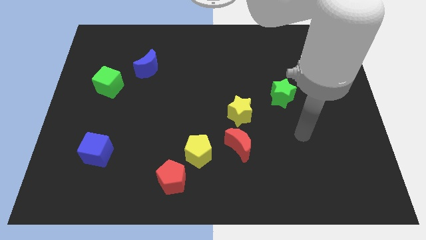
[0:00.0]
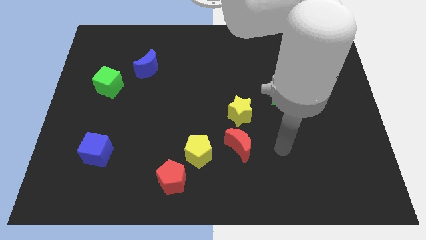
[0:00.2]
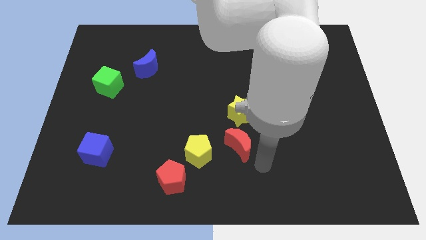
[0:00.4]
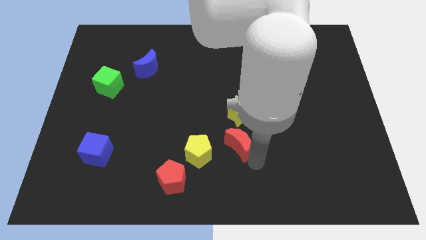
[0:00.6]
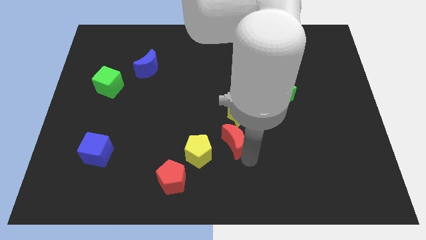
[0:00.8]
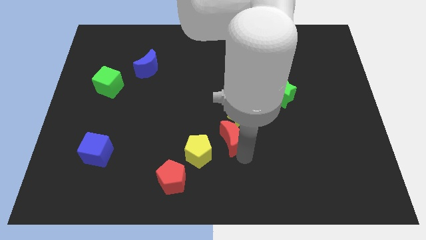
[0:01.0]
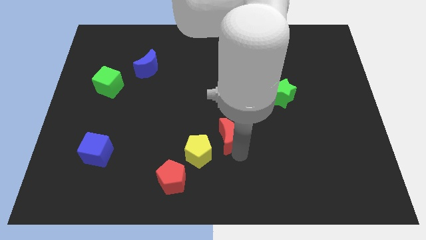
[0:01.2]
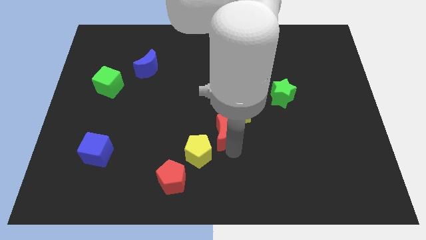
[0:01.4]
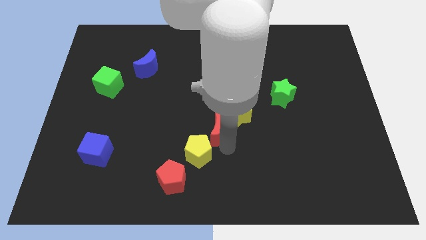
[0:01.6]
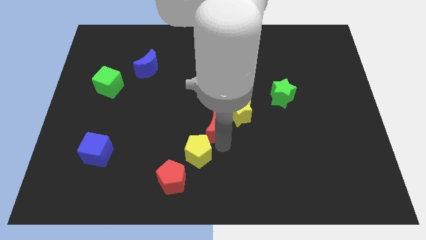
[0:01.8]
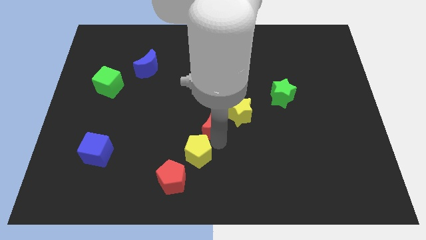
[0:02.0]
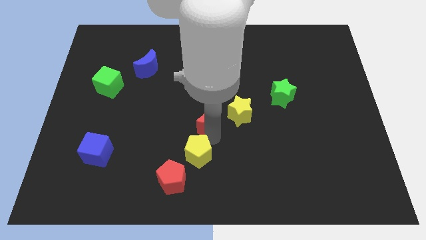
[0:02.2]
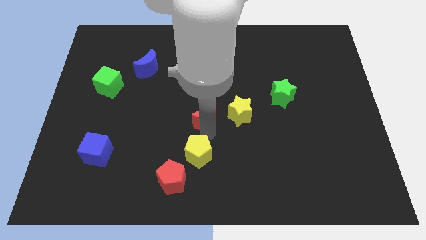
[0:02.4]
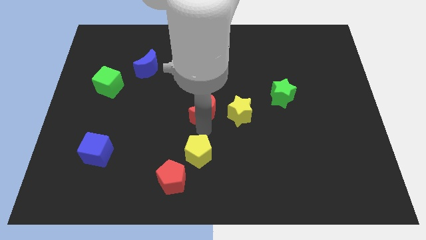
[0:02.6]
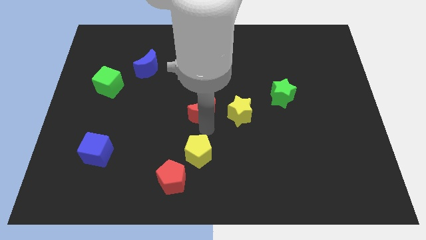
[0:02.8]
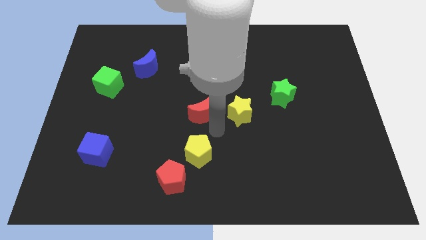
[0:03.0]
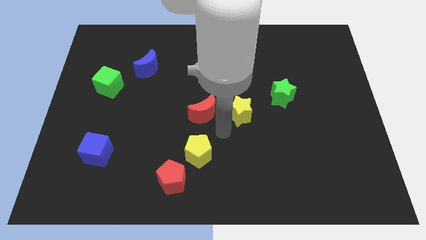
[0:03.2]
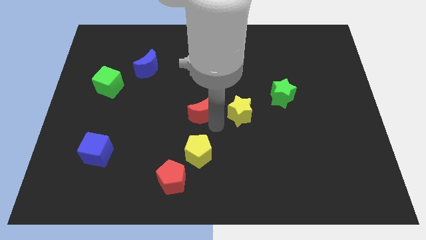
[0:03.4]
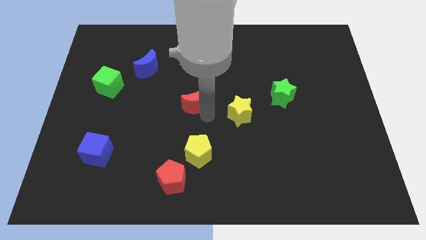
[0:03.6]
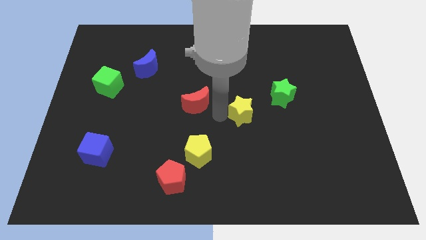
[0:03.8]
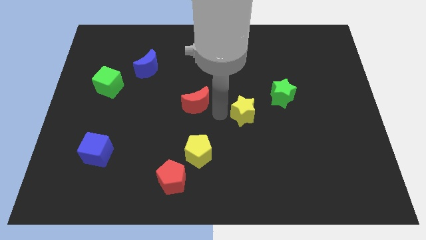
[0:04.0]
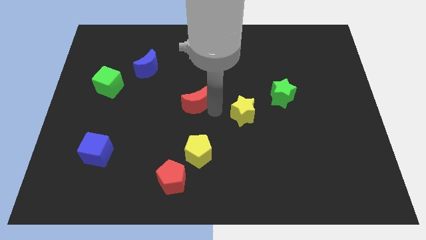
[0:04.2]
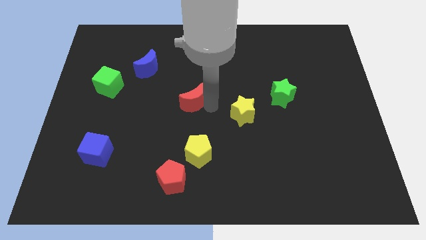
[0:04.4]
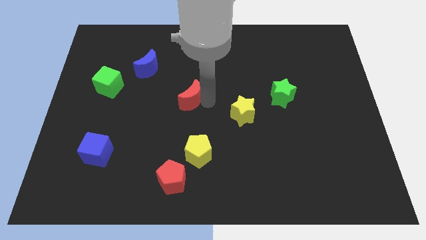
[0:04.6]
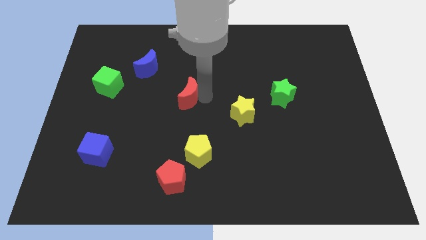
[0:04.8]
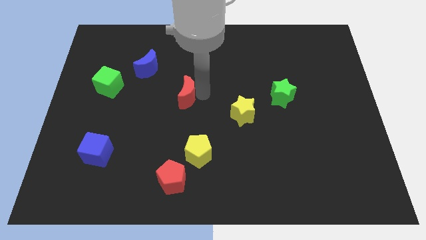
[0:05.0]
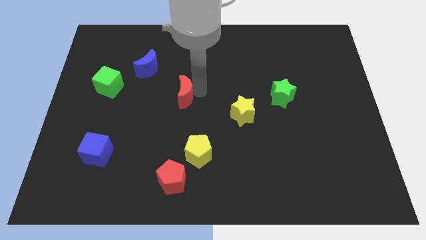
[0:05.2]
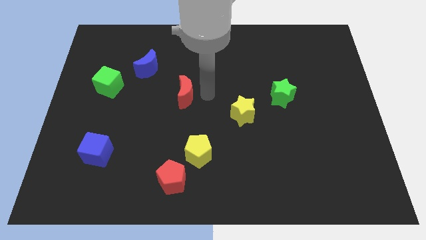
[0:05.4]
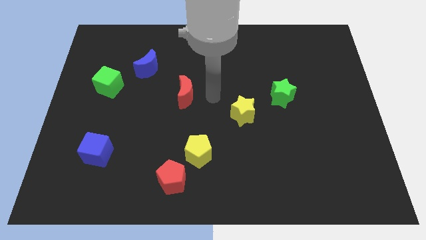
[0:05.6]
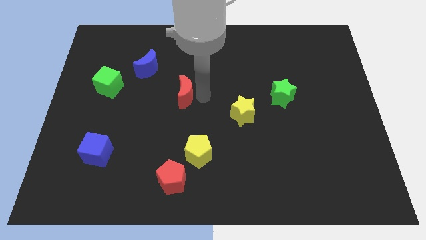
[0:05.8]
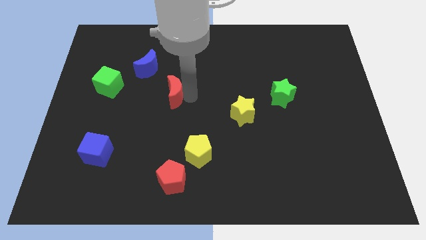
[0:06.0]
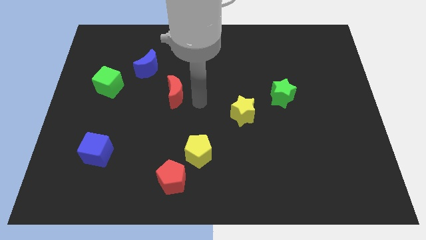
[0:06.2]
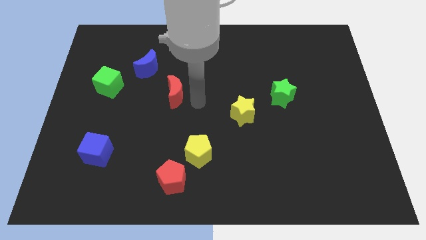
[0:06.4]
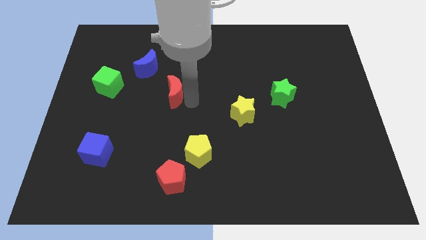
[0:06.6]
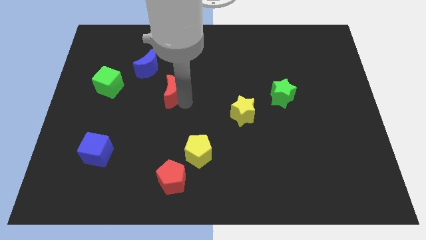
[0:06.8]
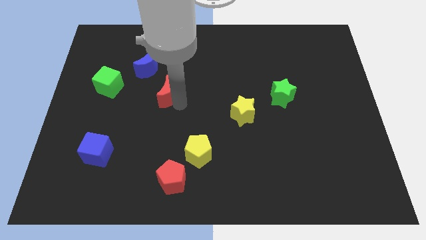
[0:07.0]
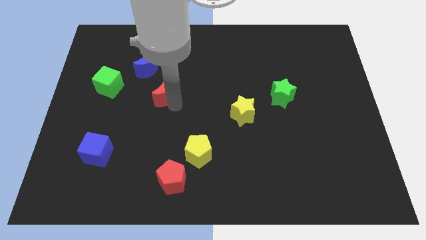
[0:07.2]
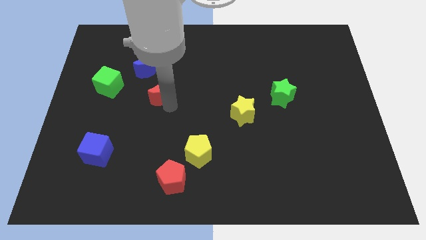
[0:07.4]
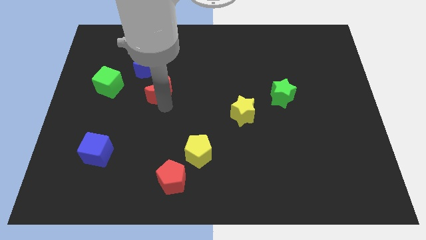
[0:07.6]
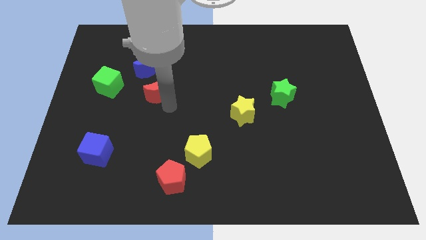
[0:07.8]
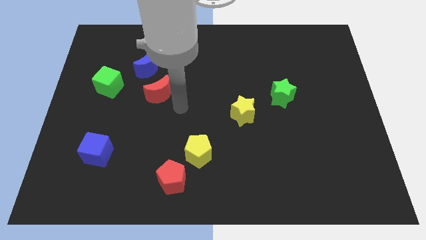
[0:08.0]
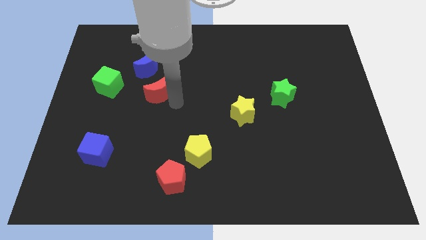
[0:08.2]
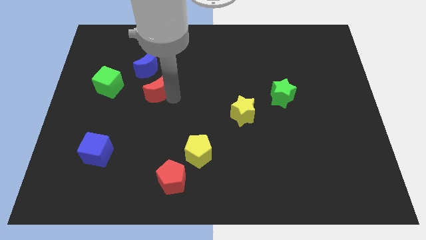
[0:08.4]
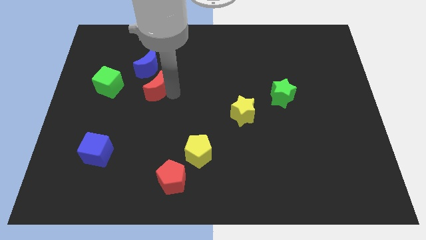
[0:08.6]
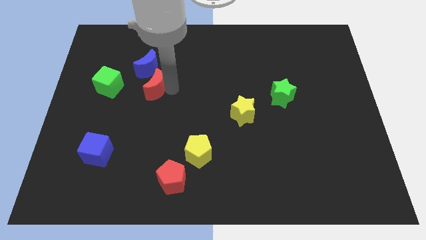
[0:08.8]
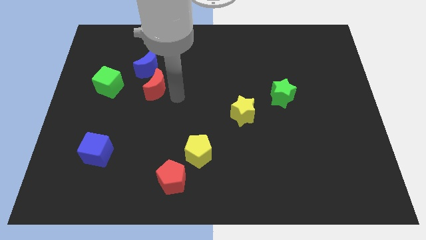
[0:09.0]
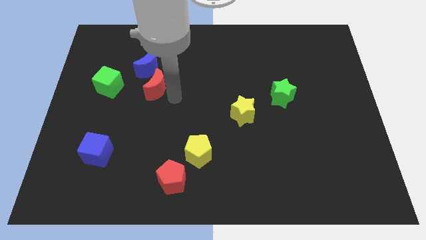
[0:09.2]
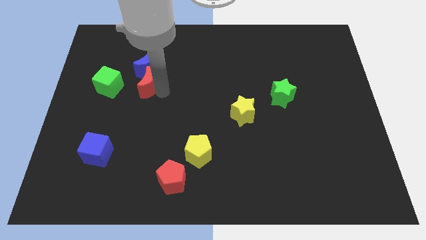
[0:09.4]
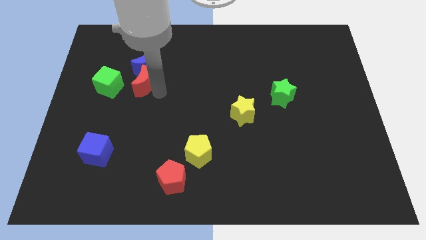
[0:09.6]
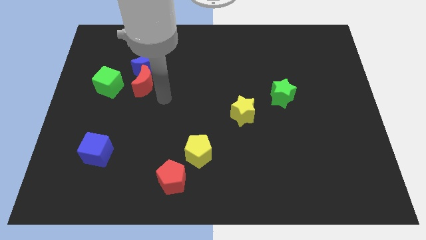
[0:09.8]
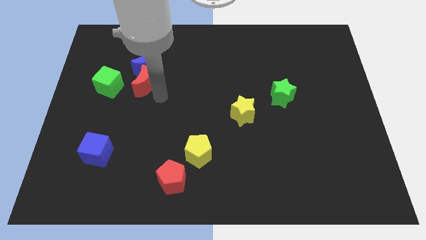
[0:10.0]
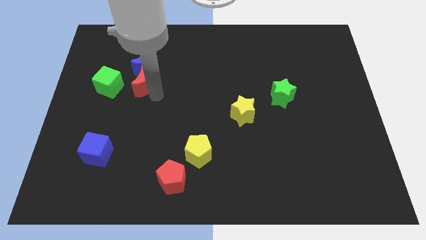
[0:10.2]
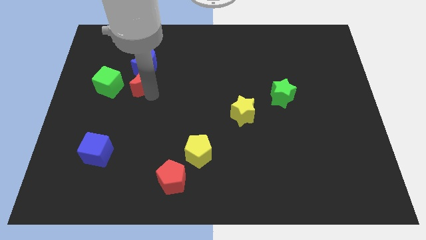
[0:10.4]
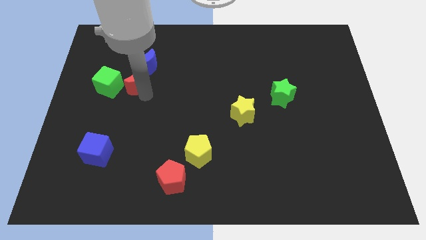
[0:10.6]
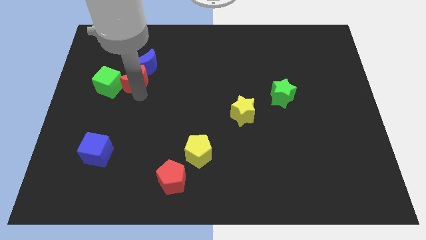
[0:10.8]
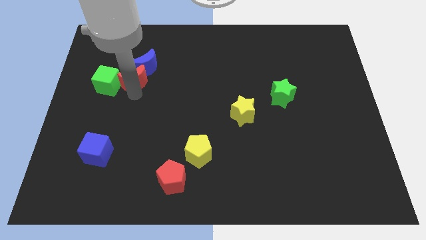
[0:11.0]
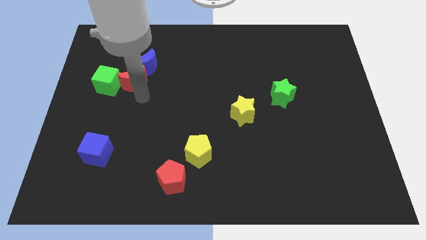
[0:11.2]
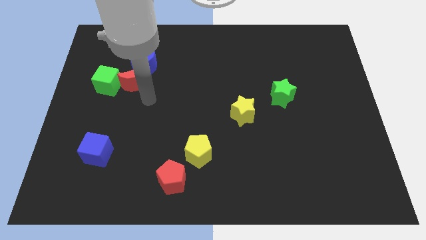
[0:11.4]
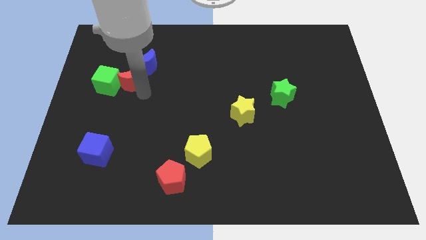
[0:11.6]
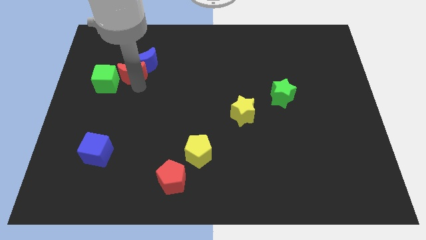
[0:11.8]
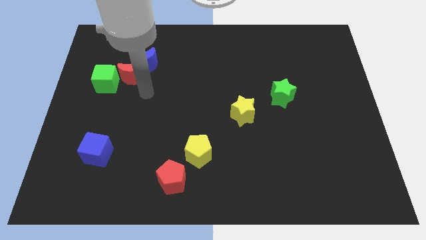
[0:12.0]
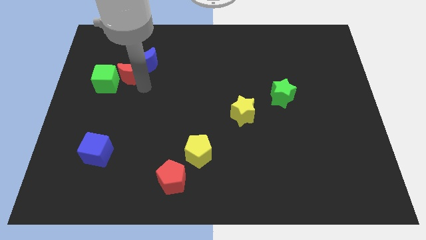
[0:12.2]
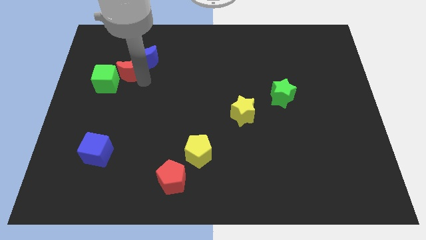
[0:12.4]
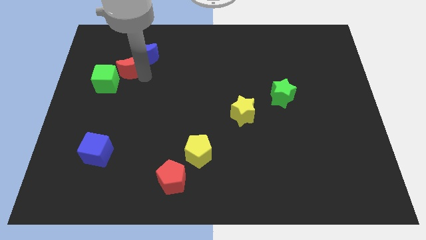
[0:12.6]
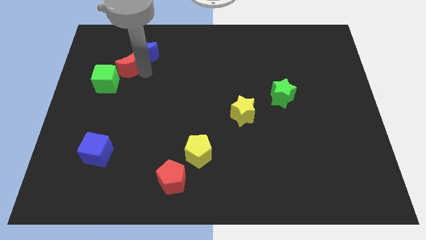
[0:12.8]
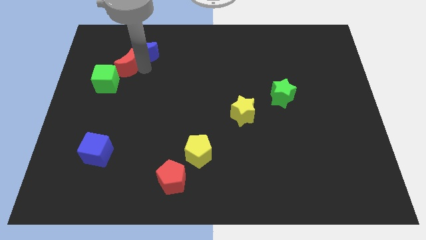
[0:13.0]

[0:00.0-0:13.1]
slide the red moon to the top of the green cube
